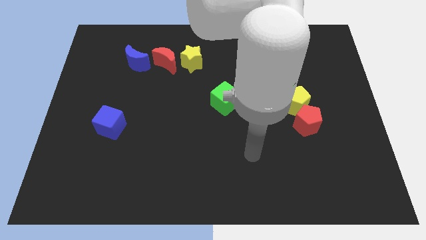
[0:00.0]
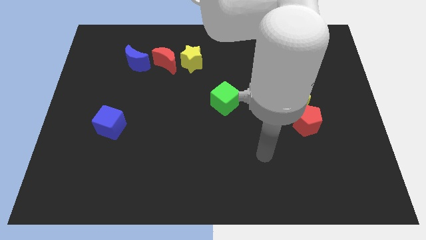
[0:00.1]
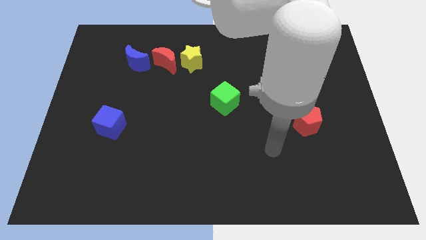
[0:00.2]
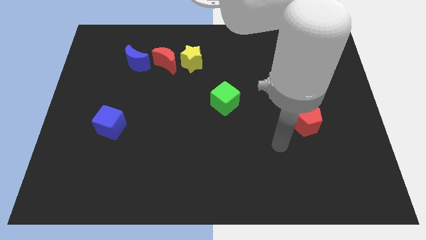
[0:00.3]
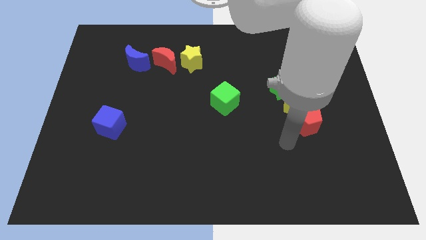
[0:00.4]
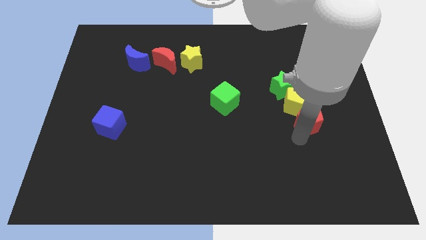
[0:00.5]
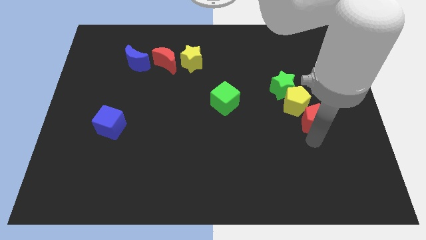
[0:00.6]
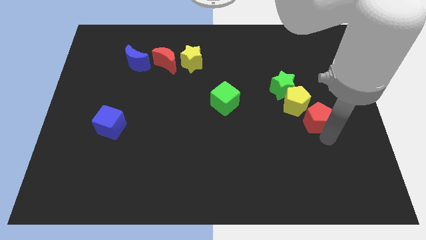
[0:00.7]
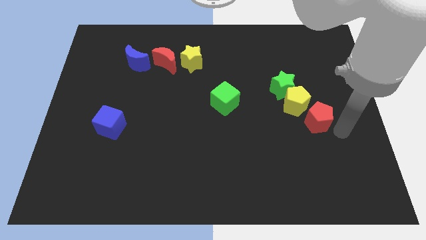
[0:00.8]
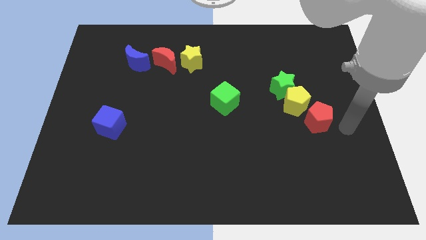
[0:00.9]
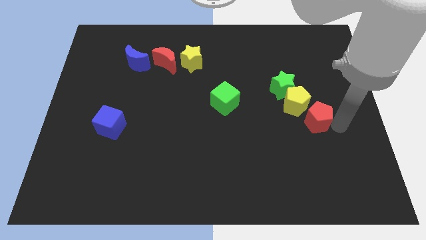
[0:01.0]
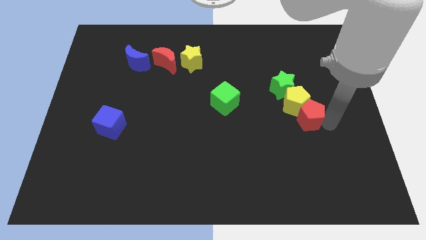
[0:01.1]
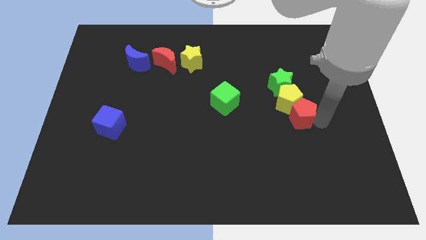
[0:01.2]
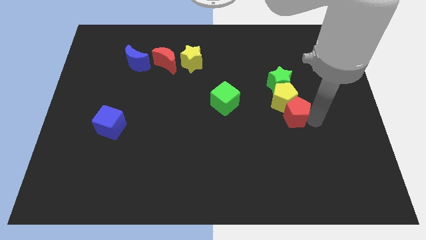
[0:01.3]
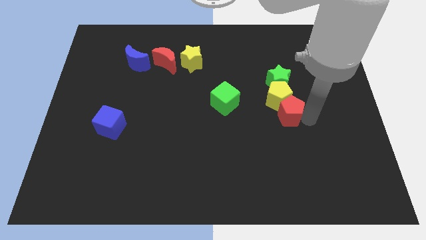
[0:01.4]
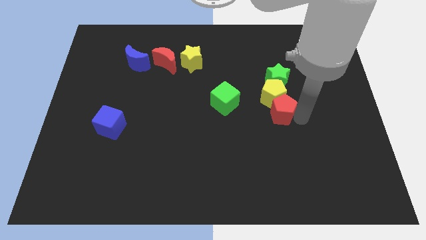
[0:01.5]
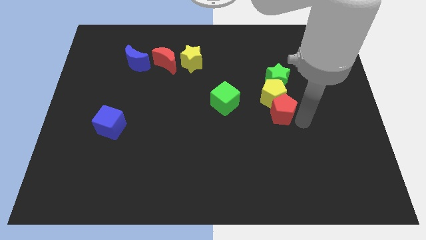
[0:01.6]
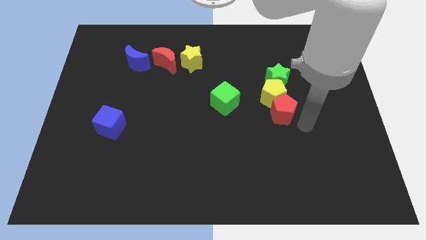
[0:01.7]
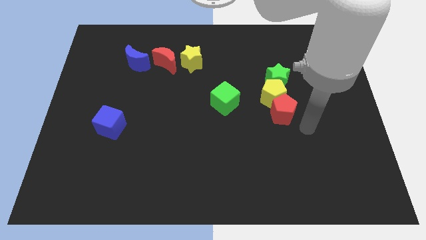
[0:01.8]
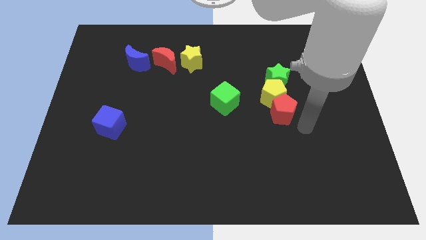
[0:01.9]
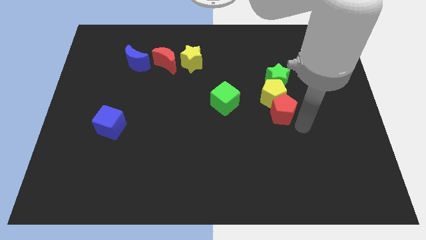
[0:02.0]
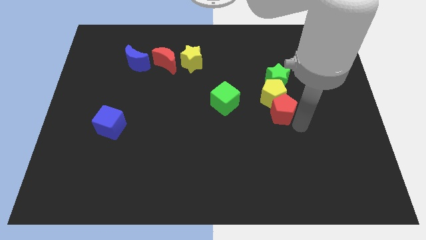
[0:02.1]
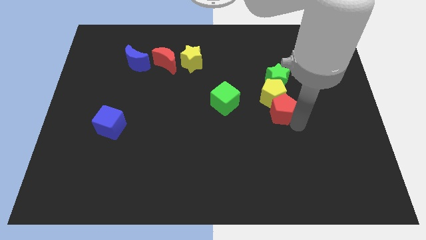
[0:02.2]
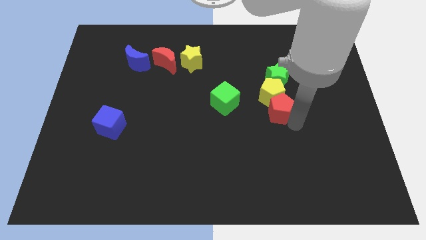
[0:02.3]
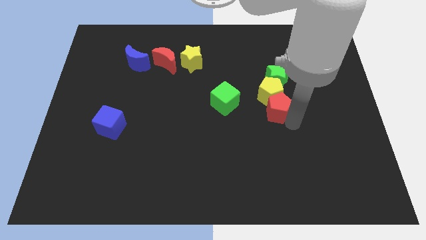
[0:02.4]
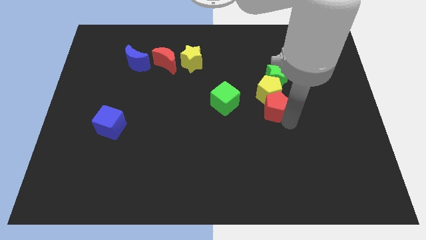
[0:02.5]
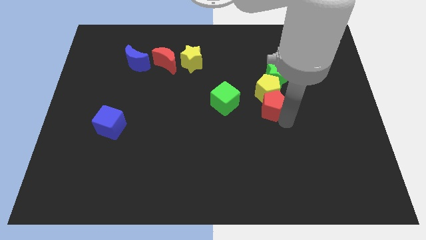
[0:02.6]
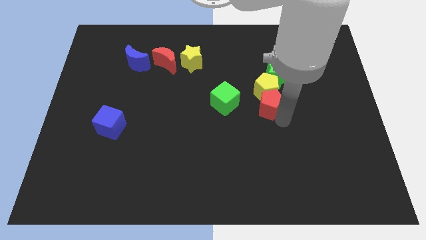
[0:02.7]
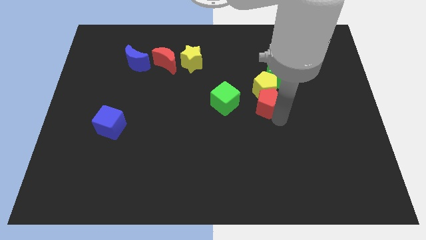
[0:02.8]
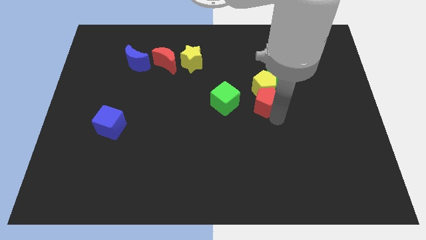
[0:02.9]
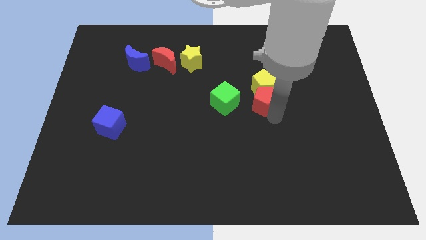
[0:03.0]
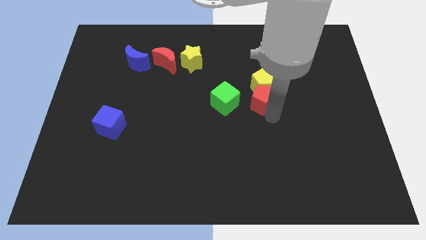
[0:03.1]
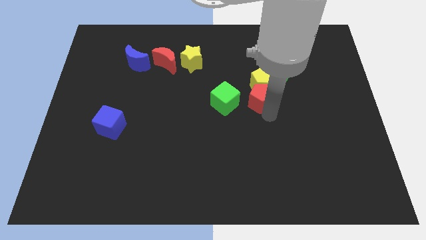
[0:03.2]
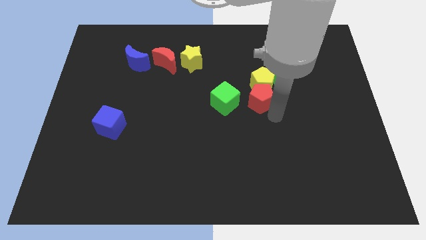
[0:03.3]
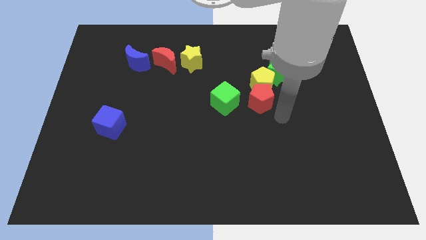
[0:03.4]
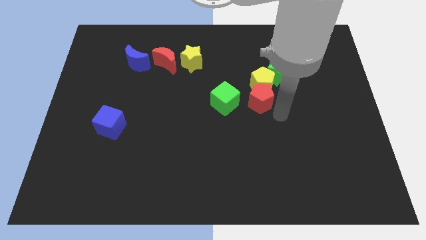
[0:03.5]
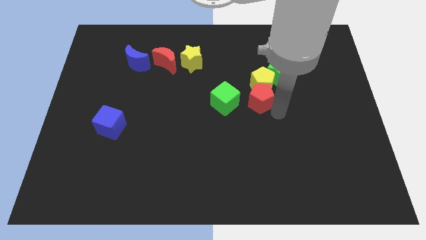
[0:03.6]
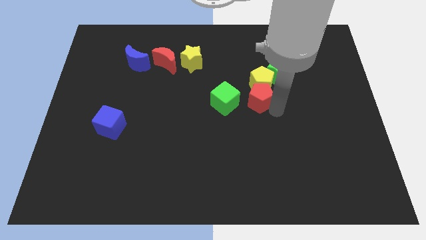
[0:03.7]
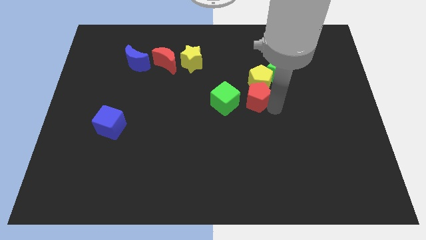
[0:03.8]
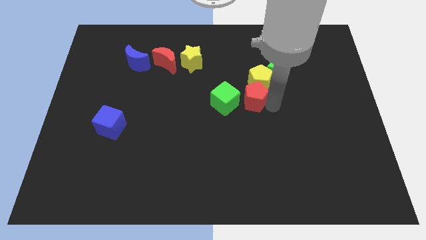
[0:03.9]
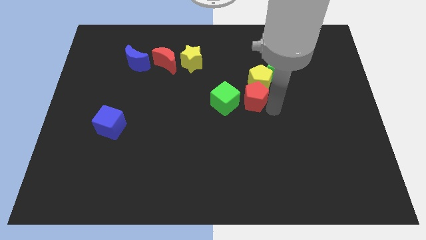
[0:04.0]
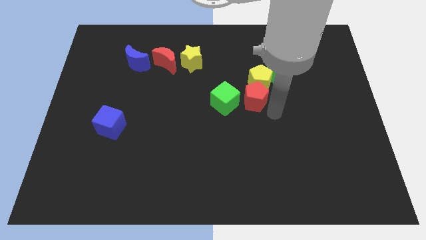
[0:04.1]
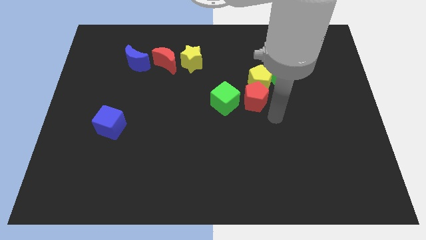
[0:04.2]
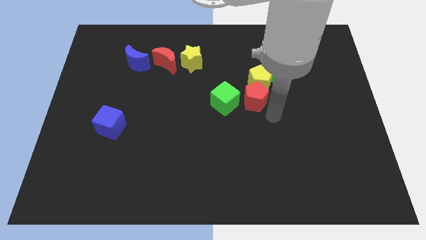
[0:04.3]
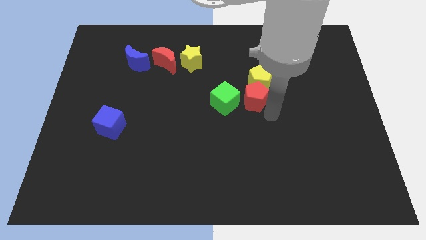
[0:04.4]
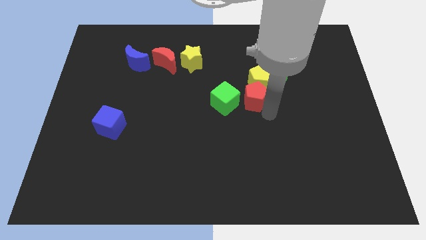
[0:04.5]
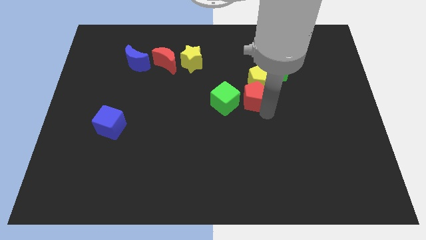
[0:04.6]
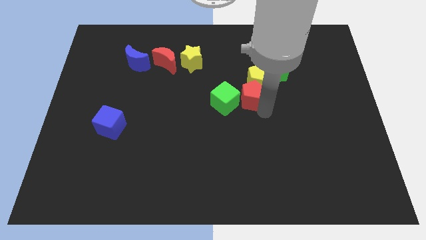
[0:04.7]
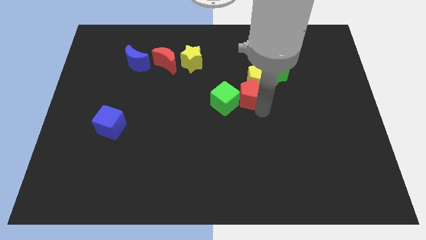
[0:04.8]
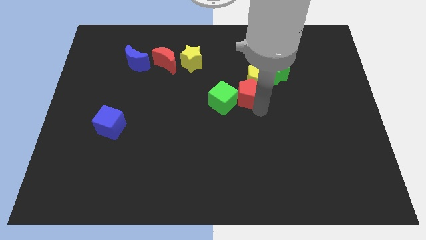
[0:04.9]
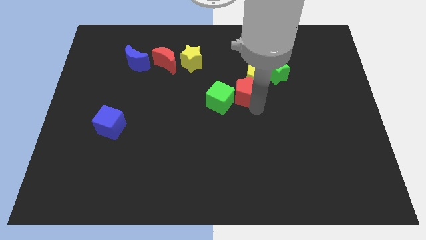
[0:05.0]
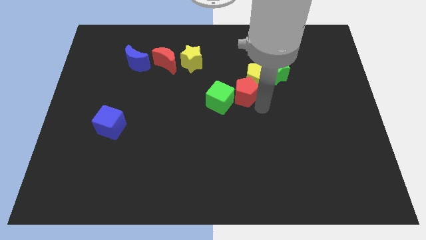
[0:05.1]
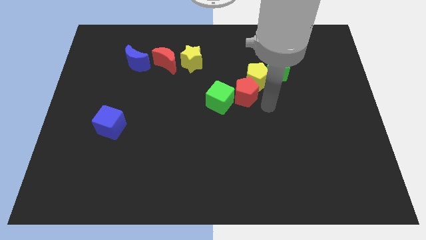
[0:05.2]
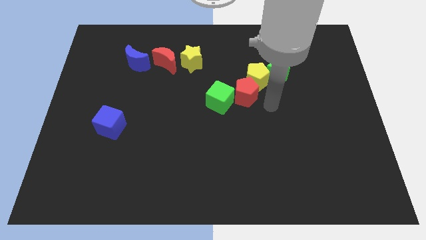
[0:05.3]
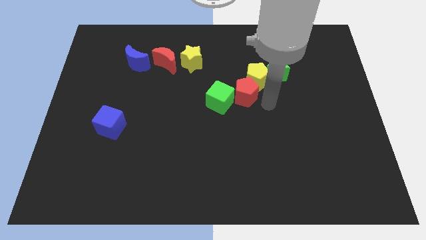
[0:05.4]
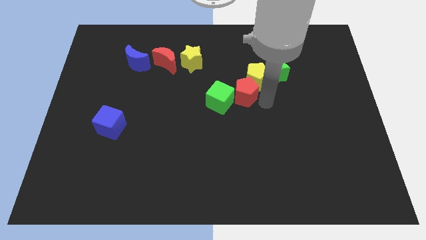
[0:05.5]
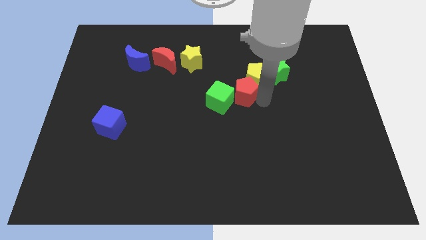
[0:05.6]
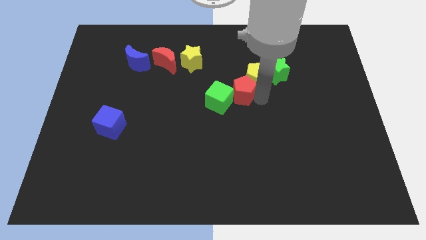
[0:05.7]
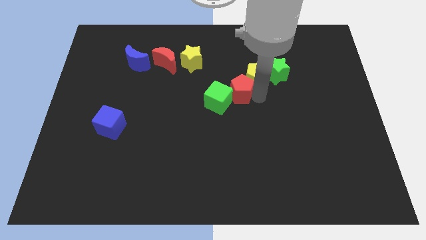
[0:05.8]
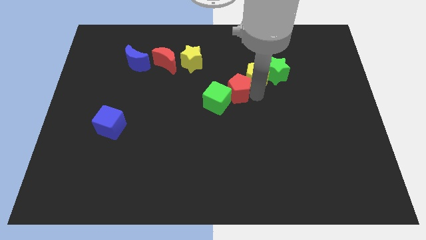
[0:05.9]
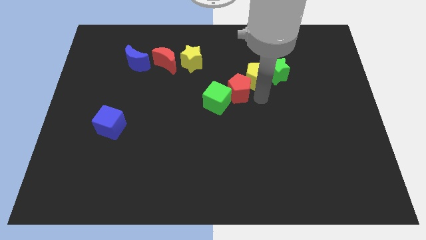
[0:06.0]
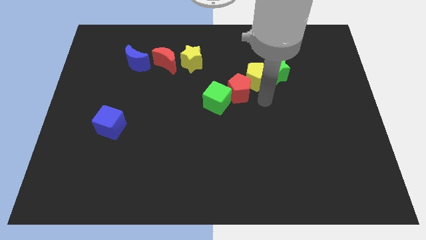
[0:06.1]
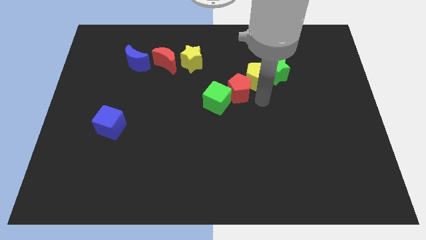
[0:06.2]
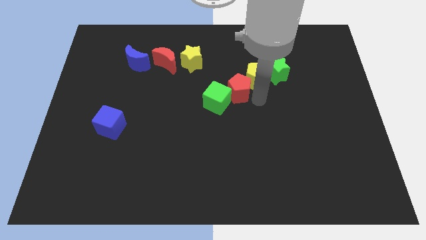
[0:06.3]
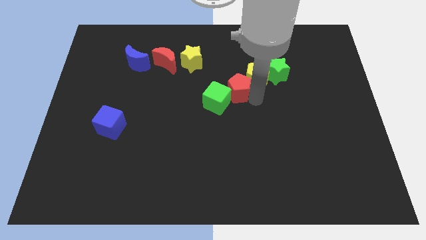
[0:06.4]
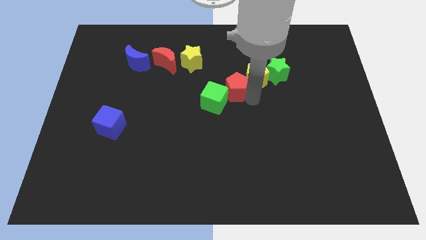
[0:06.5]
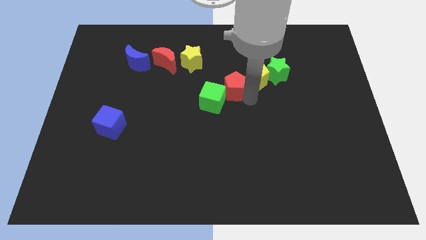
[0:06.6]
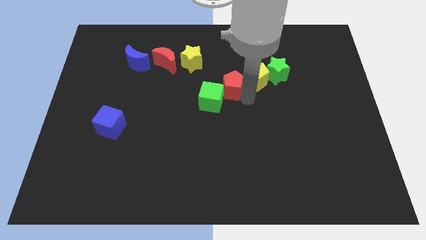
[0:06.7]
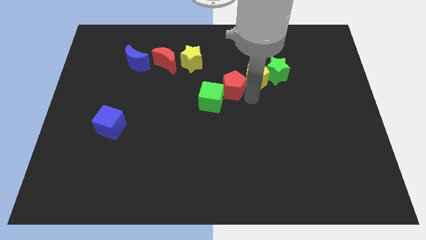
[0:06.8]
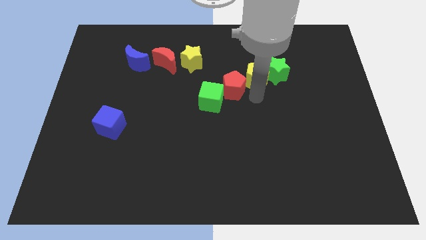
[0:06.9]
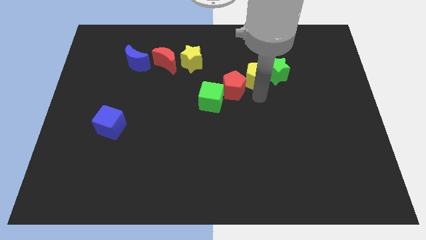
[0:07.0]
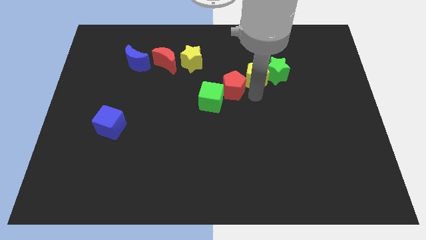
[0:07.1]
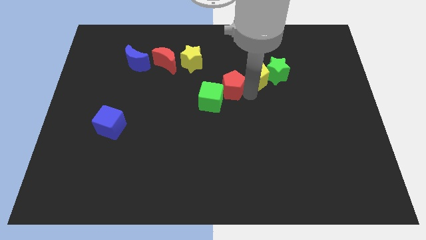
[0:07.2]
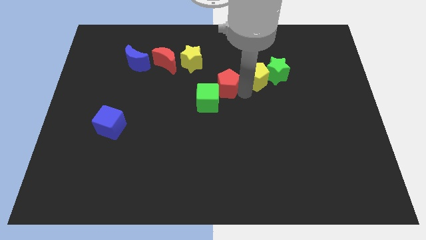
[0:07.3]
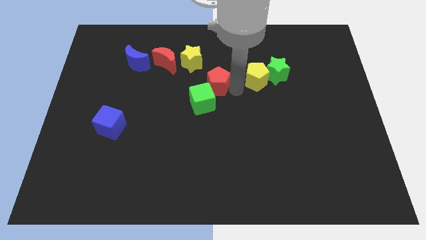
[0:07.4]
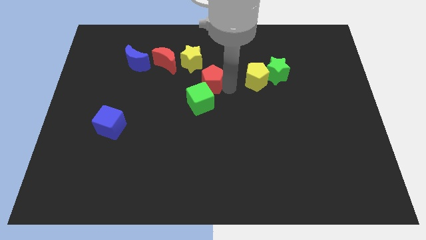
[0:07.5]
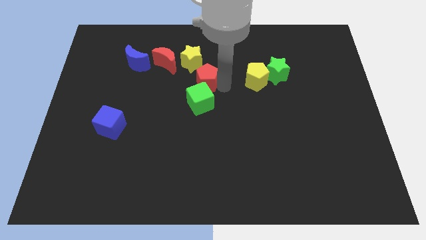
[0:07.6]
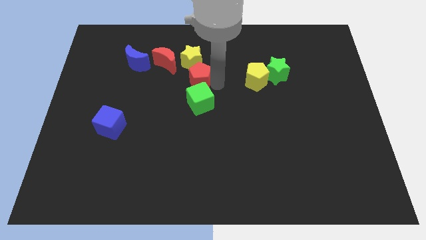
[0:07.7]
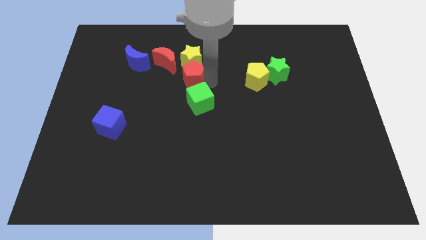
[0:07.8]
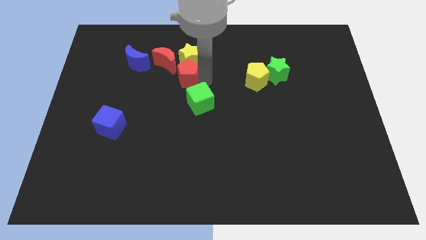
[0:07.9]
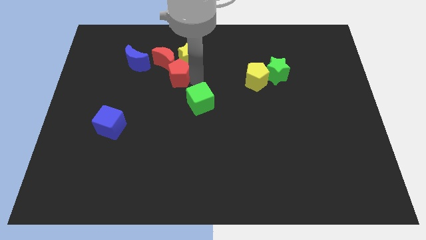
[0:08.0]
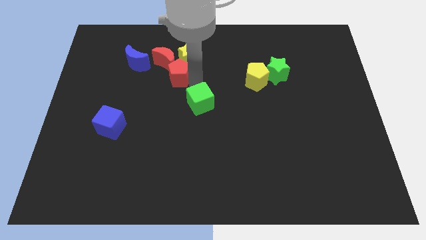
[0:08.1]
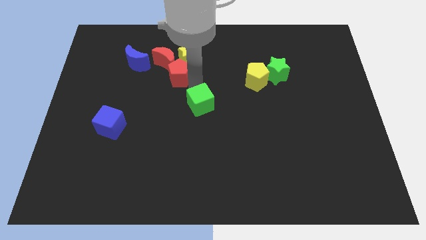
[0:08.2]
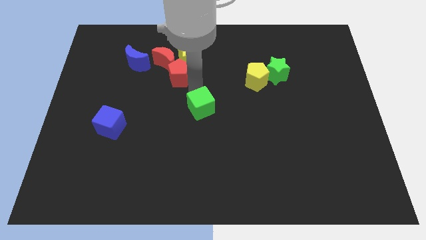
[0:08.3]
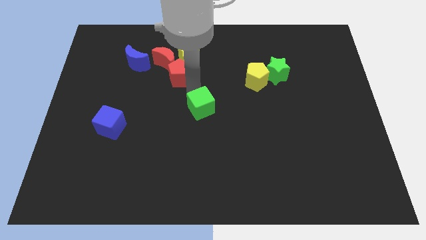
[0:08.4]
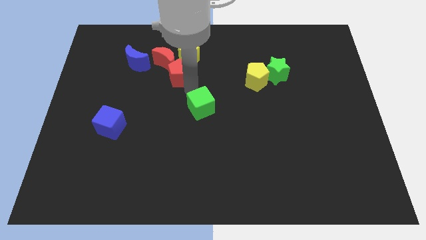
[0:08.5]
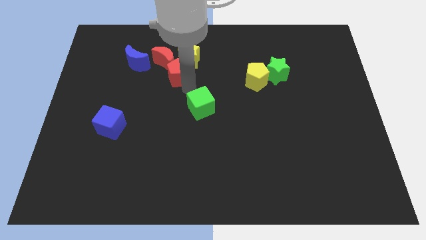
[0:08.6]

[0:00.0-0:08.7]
move the red pentagon next to the red moon
